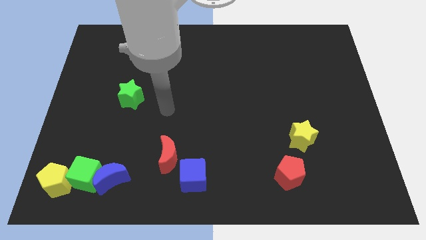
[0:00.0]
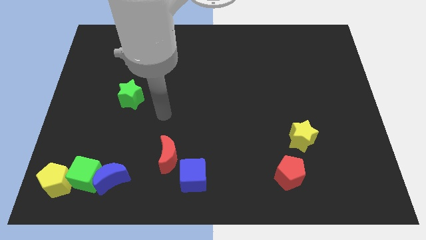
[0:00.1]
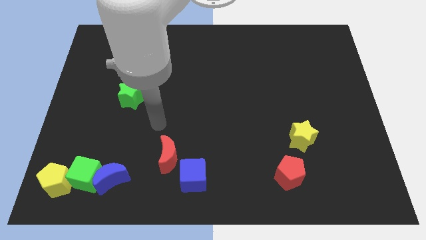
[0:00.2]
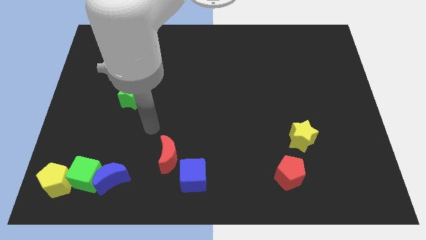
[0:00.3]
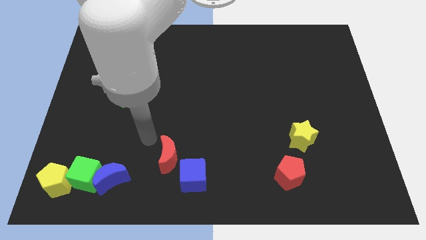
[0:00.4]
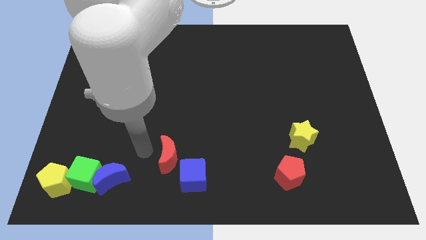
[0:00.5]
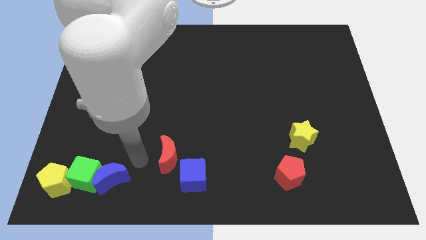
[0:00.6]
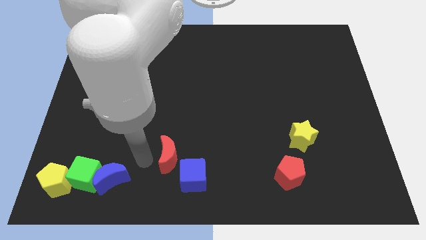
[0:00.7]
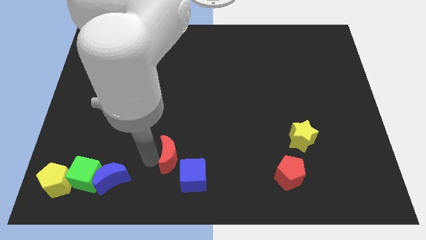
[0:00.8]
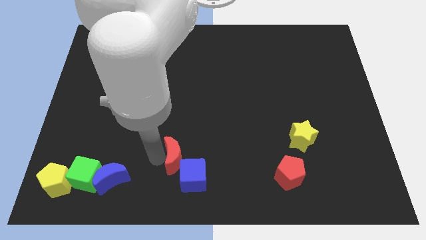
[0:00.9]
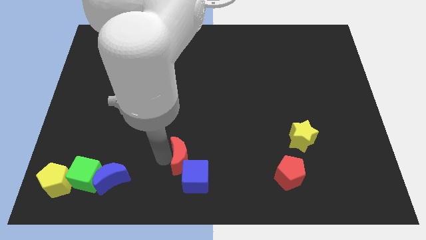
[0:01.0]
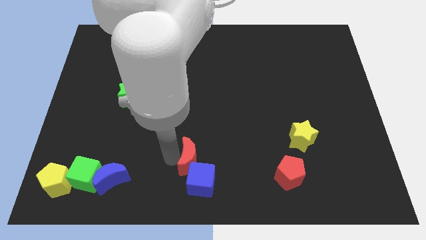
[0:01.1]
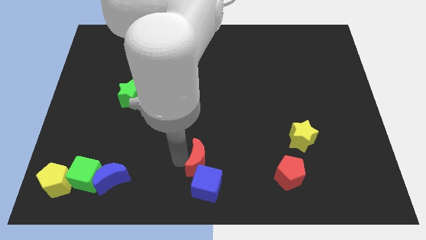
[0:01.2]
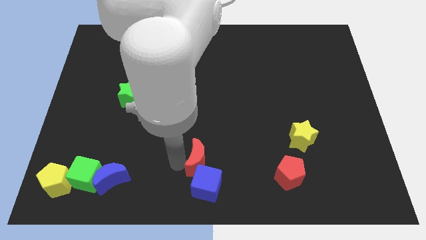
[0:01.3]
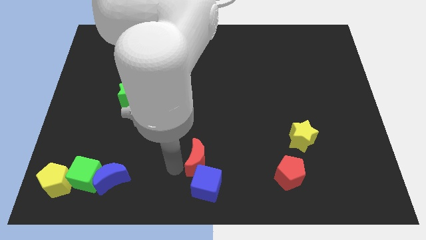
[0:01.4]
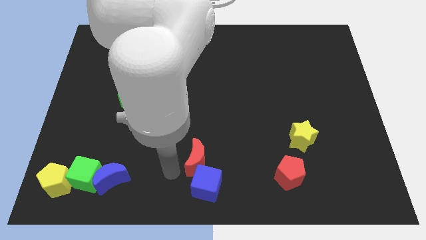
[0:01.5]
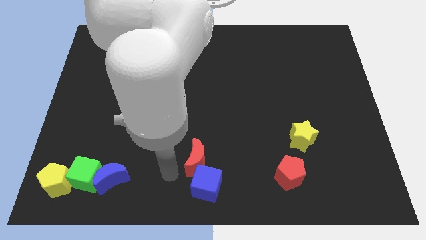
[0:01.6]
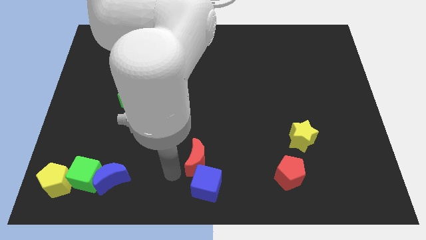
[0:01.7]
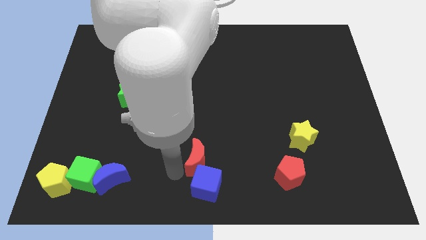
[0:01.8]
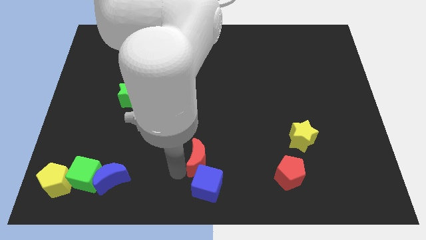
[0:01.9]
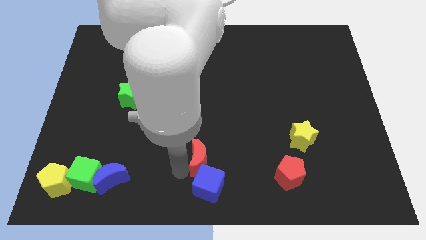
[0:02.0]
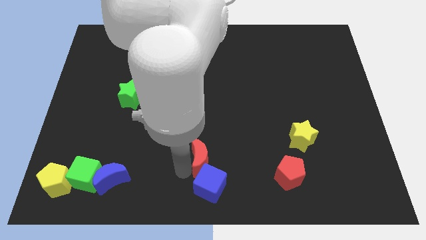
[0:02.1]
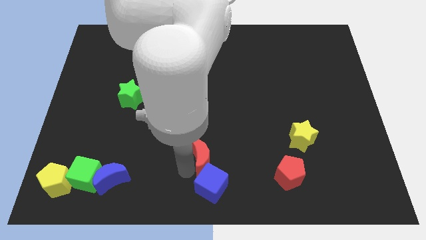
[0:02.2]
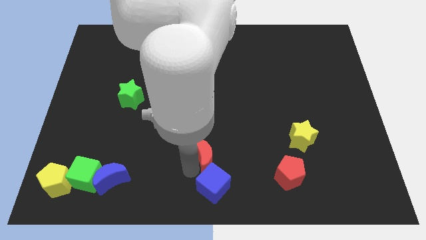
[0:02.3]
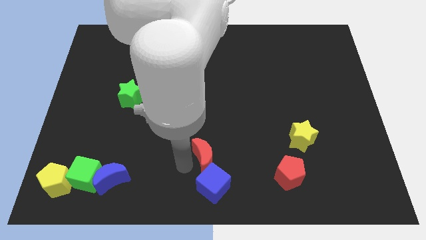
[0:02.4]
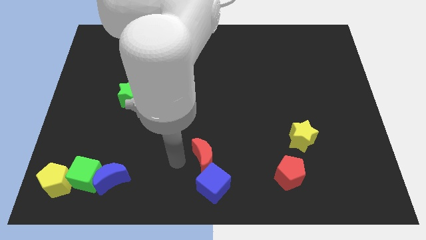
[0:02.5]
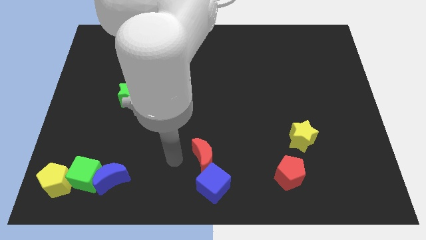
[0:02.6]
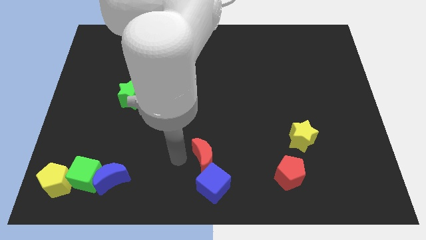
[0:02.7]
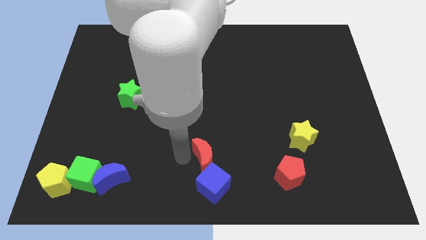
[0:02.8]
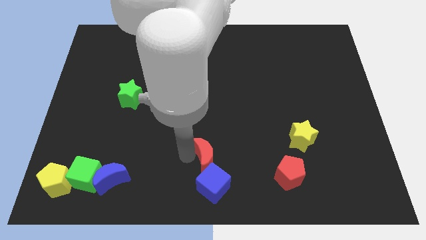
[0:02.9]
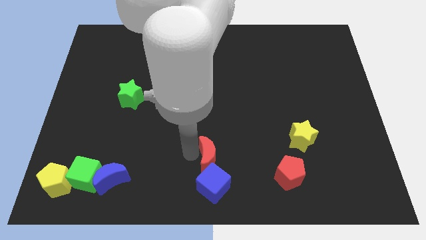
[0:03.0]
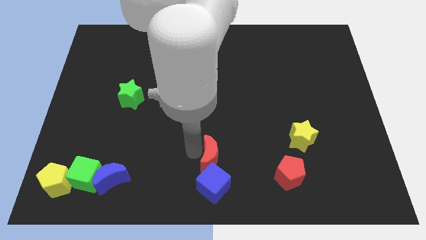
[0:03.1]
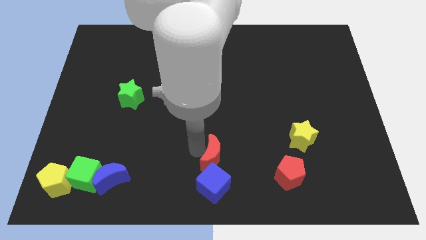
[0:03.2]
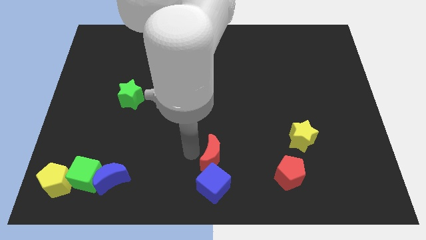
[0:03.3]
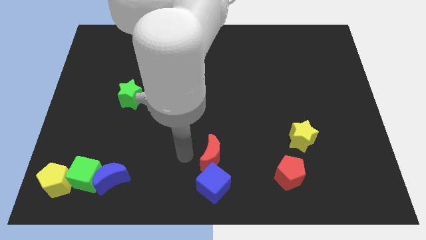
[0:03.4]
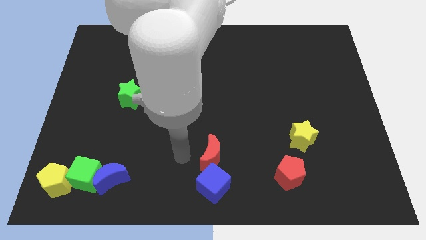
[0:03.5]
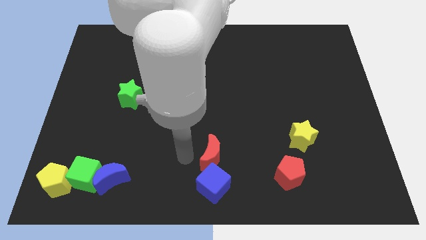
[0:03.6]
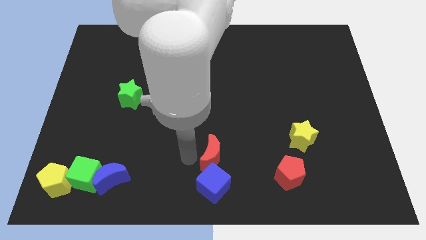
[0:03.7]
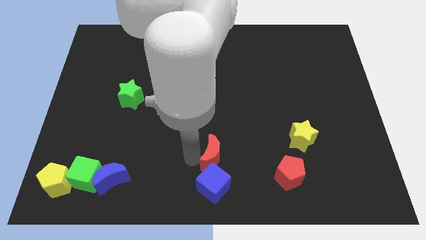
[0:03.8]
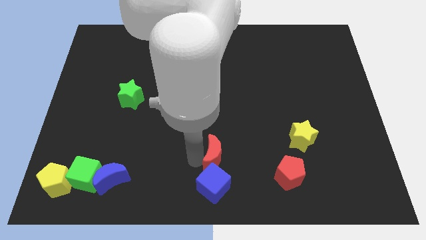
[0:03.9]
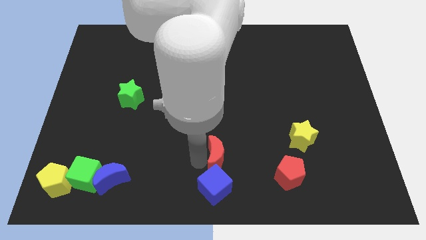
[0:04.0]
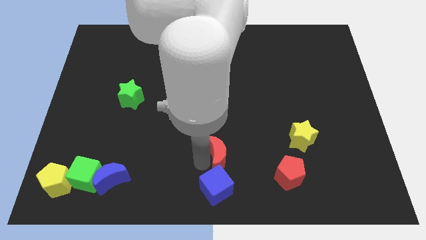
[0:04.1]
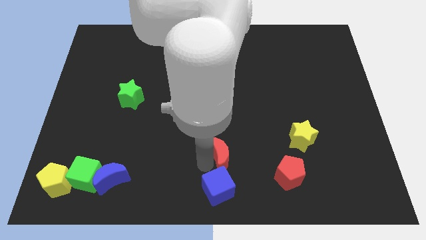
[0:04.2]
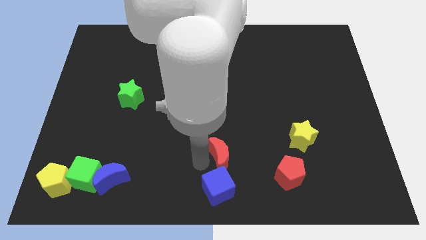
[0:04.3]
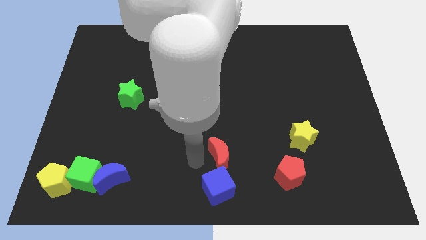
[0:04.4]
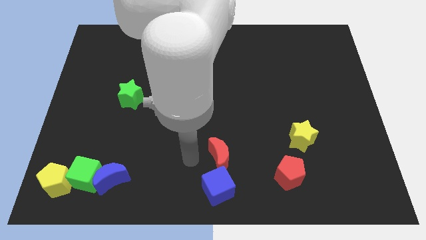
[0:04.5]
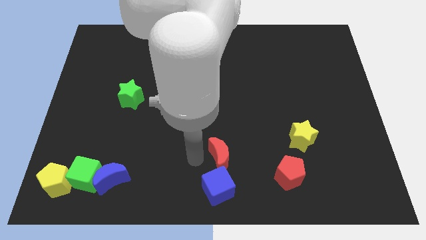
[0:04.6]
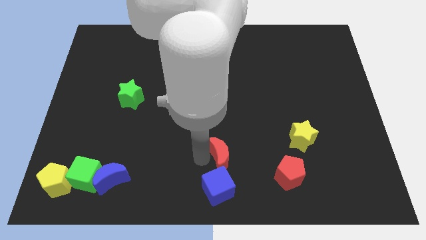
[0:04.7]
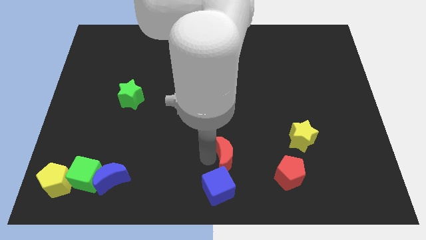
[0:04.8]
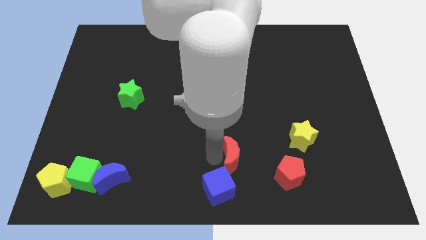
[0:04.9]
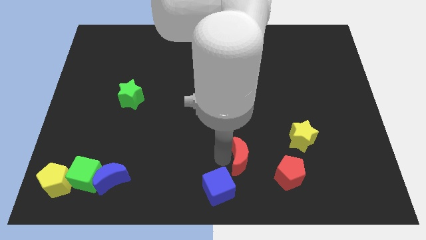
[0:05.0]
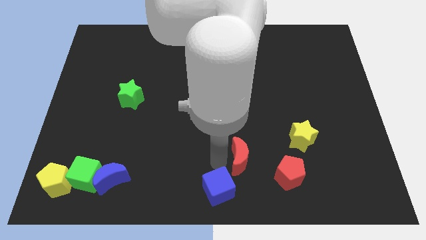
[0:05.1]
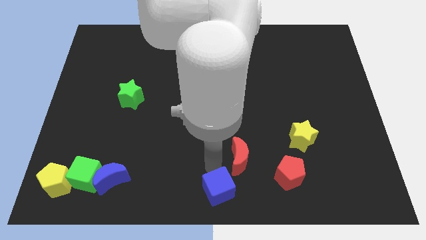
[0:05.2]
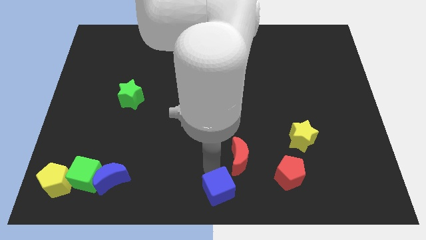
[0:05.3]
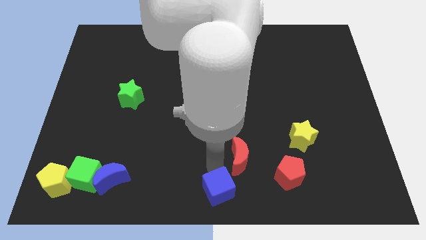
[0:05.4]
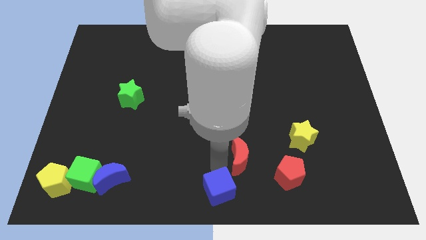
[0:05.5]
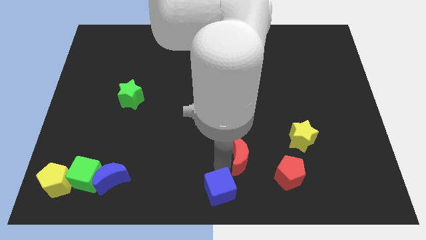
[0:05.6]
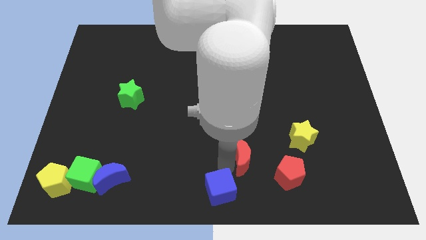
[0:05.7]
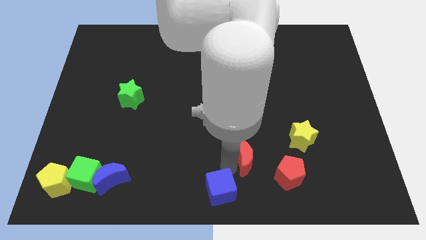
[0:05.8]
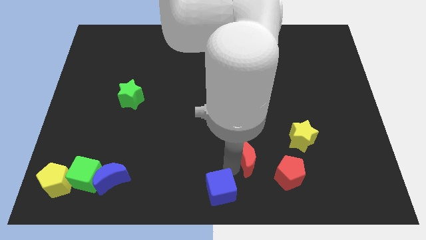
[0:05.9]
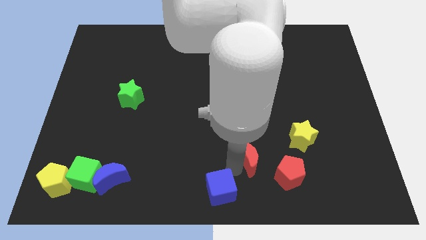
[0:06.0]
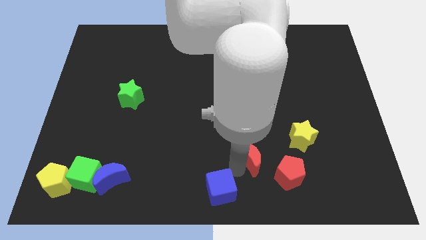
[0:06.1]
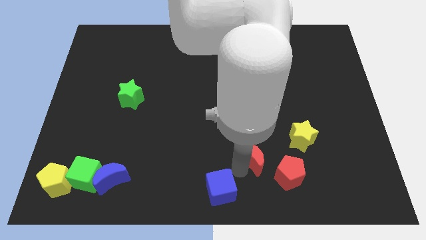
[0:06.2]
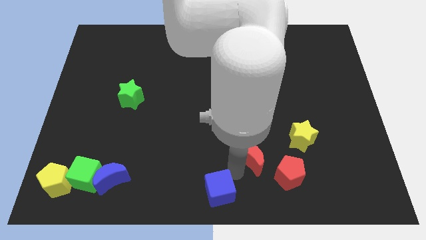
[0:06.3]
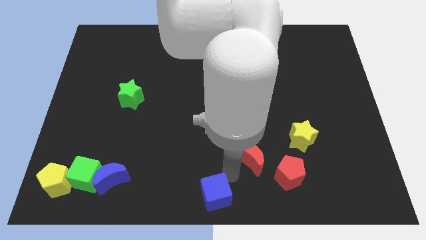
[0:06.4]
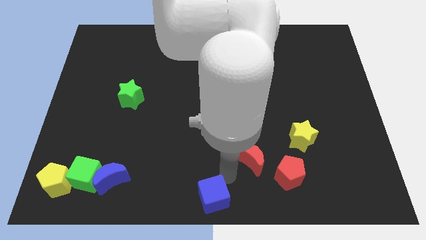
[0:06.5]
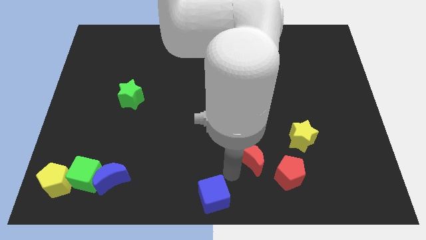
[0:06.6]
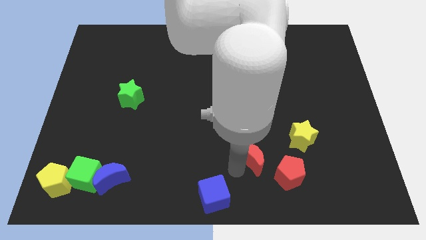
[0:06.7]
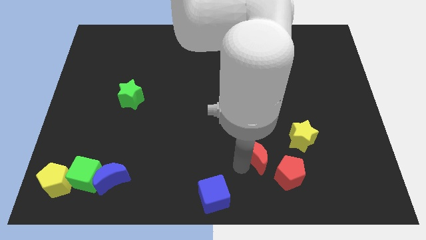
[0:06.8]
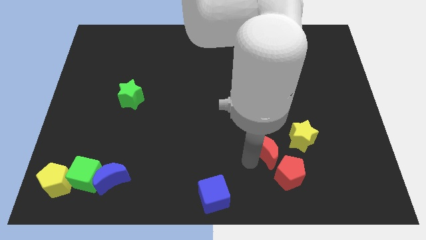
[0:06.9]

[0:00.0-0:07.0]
put the red moon to the top side of the red pentagon
